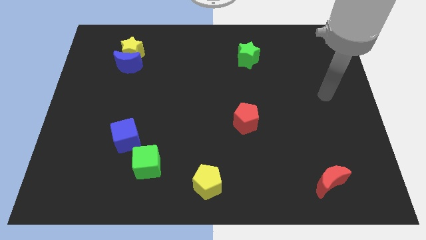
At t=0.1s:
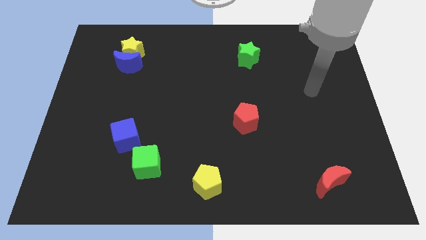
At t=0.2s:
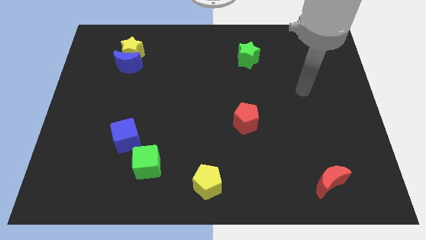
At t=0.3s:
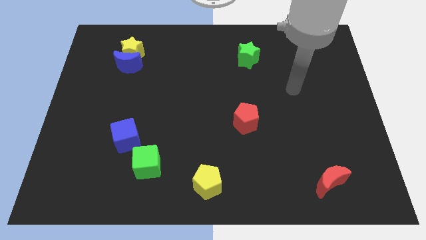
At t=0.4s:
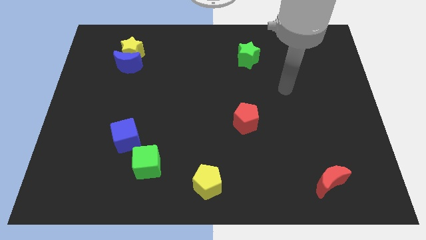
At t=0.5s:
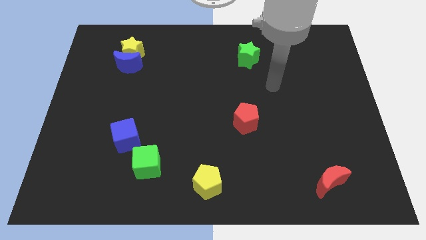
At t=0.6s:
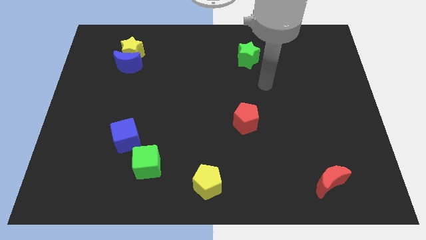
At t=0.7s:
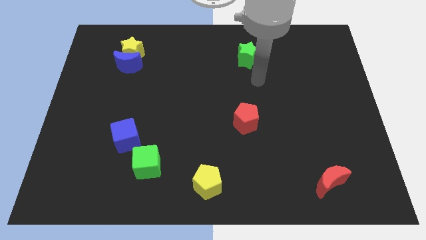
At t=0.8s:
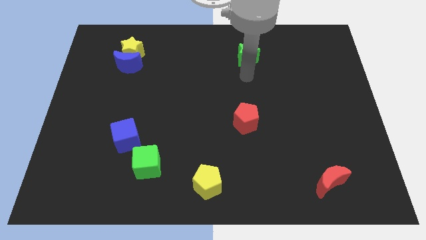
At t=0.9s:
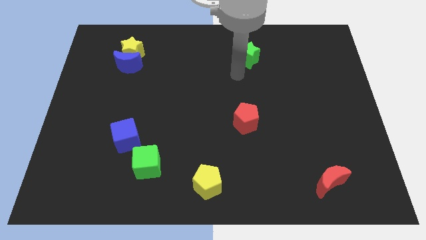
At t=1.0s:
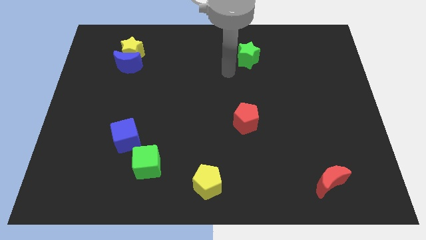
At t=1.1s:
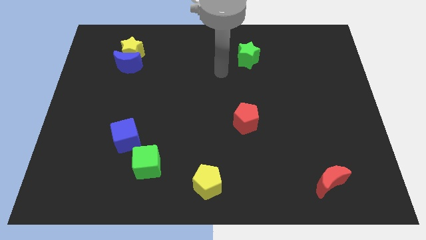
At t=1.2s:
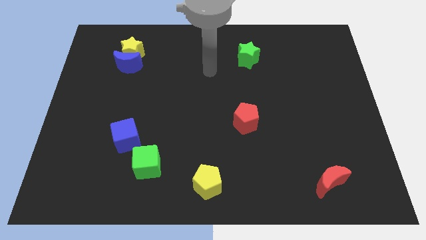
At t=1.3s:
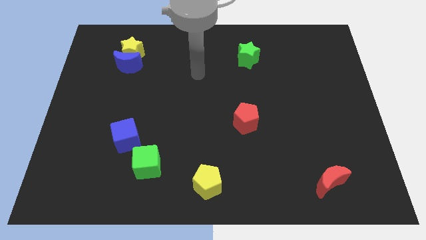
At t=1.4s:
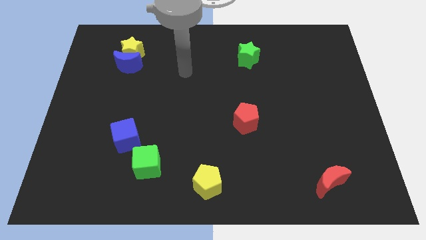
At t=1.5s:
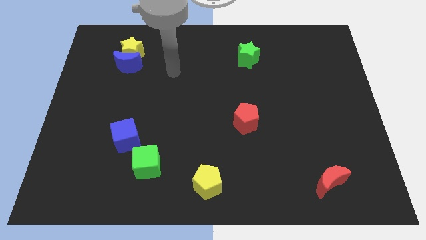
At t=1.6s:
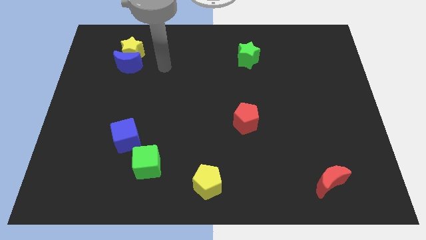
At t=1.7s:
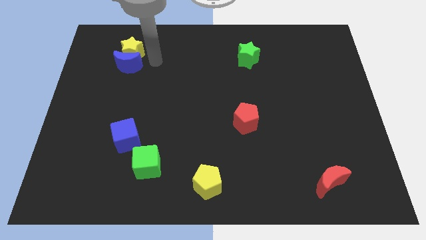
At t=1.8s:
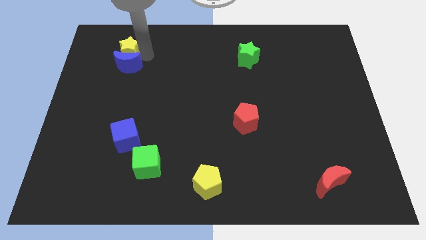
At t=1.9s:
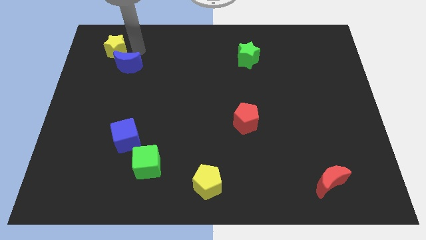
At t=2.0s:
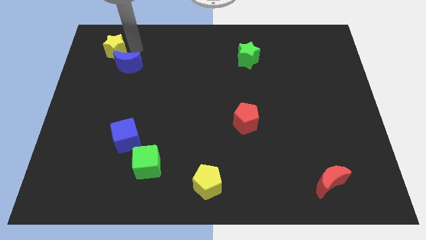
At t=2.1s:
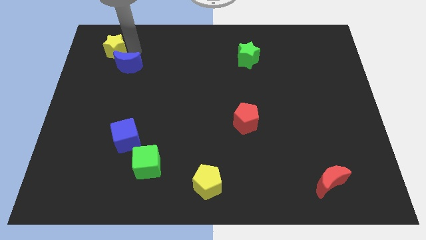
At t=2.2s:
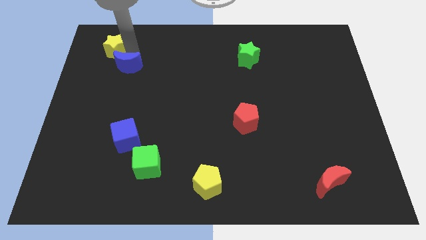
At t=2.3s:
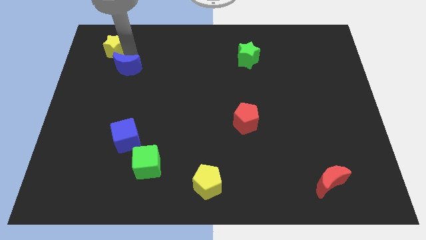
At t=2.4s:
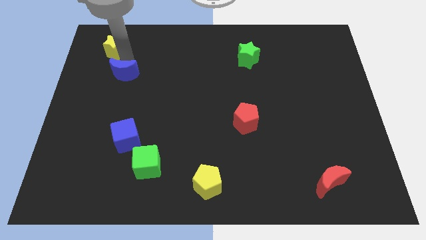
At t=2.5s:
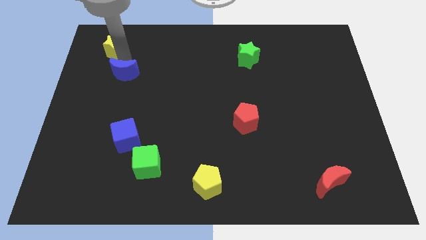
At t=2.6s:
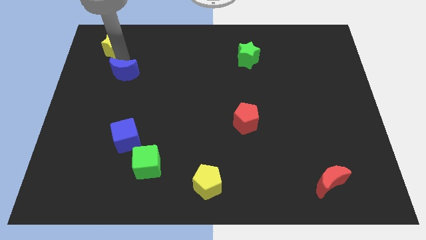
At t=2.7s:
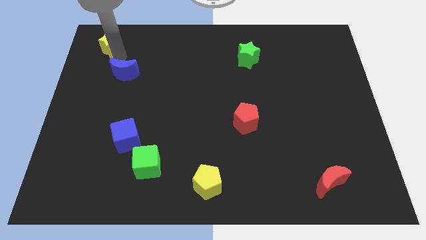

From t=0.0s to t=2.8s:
move the blue moon away from the yellow star

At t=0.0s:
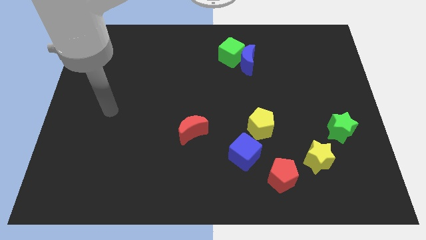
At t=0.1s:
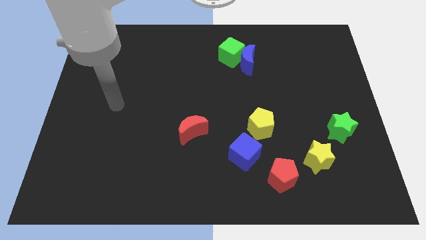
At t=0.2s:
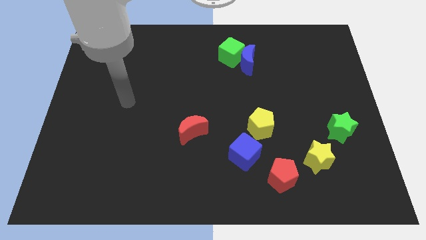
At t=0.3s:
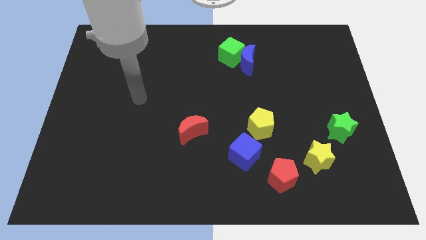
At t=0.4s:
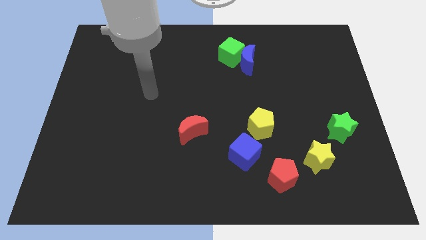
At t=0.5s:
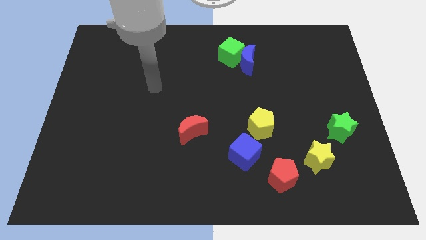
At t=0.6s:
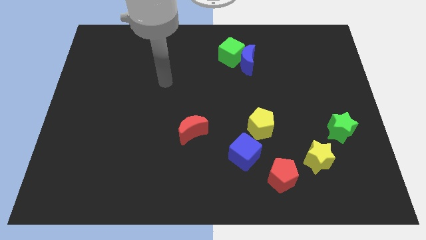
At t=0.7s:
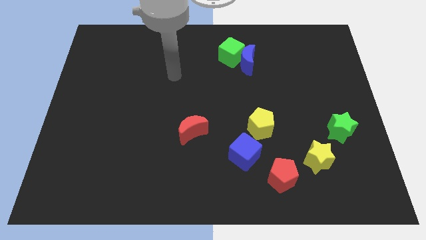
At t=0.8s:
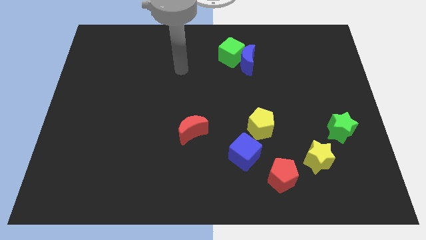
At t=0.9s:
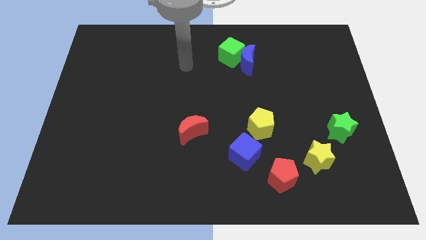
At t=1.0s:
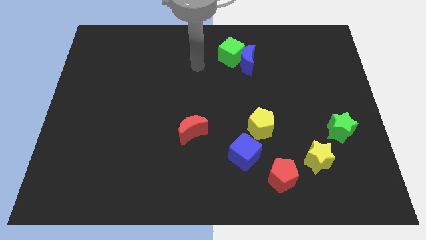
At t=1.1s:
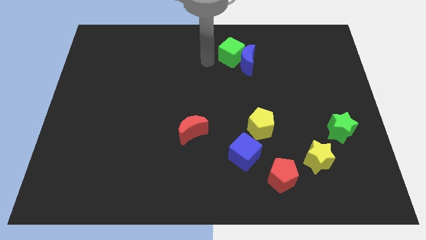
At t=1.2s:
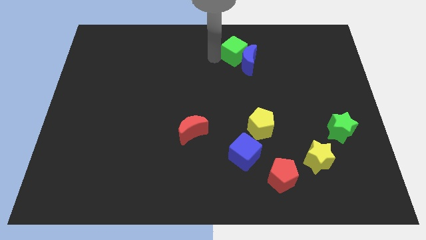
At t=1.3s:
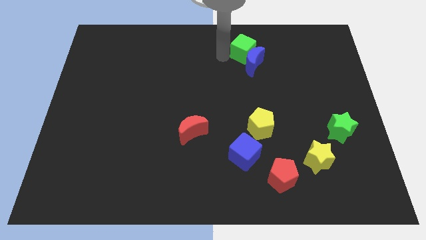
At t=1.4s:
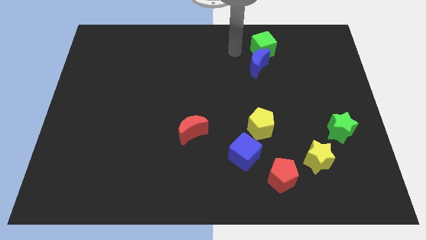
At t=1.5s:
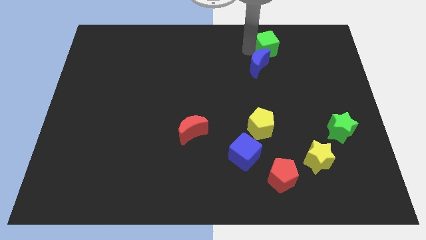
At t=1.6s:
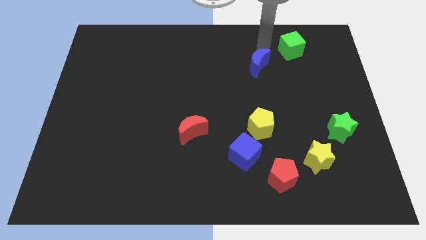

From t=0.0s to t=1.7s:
pull the blue moon apart from the green cube

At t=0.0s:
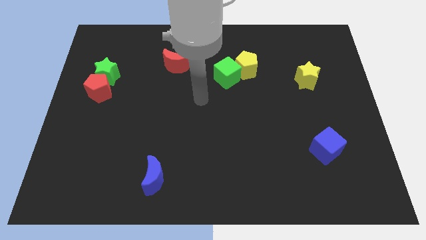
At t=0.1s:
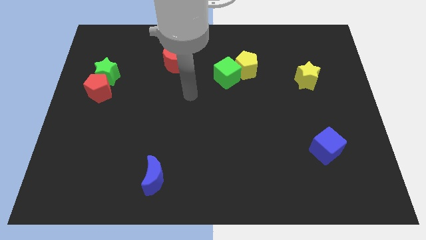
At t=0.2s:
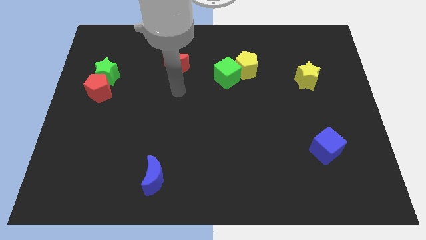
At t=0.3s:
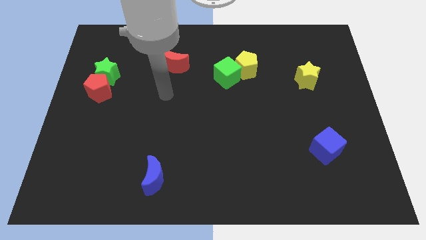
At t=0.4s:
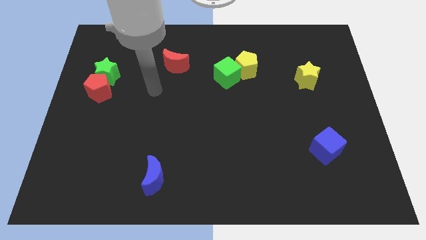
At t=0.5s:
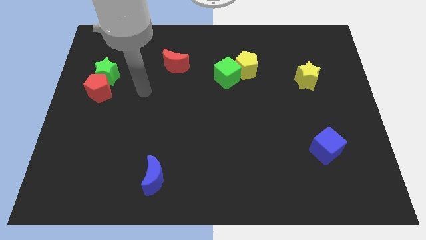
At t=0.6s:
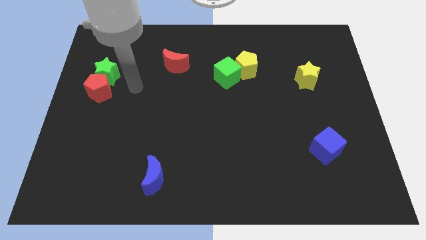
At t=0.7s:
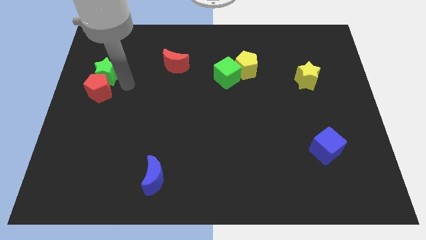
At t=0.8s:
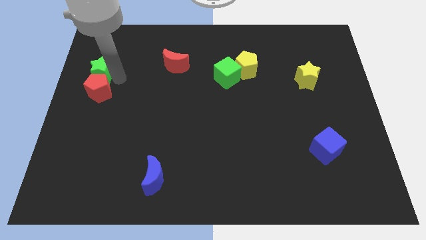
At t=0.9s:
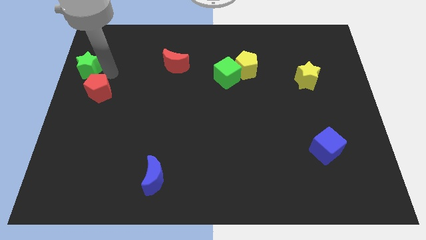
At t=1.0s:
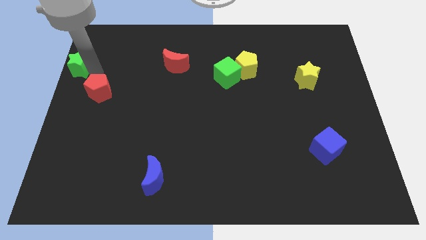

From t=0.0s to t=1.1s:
move the red pentagon away from the green star

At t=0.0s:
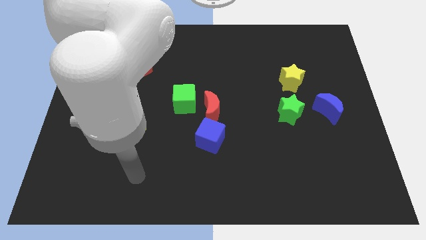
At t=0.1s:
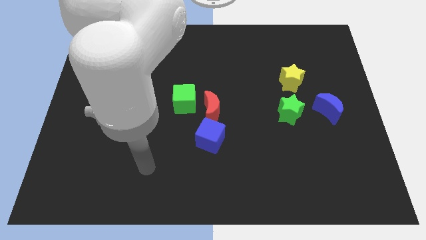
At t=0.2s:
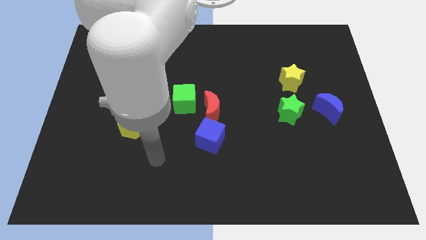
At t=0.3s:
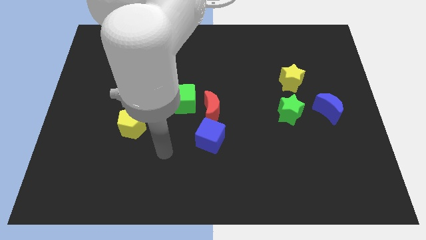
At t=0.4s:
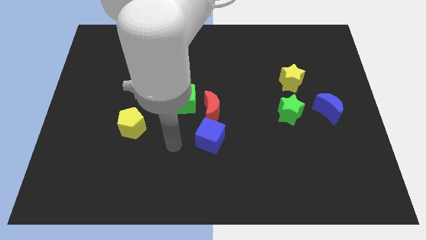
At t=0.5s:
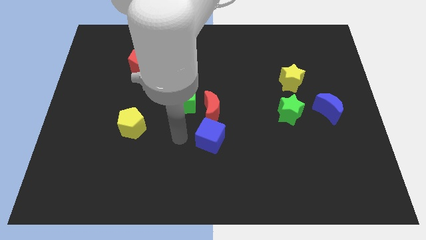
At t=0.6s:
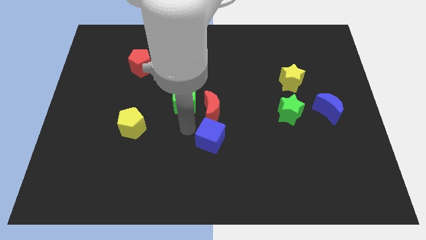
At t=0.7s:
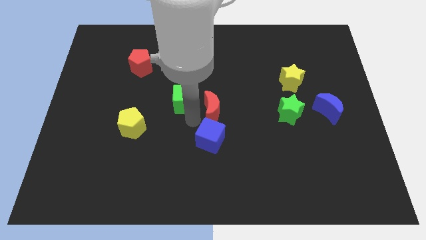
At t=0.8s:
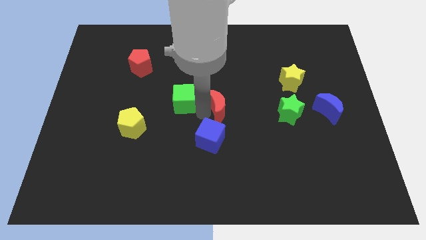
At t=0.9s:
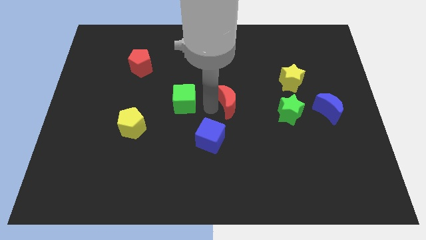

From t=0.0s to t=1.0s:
move the green cube away from the red moon

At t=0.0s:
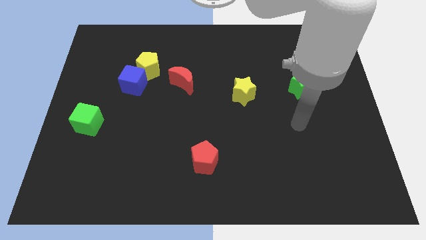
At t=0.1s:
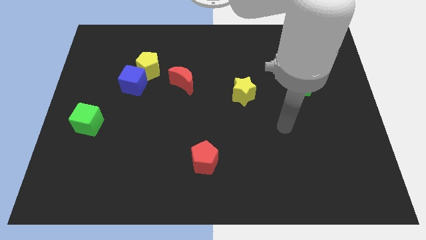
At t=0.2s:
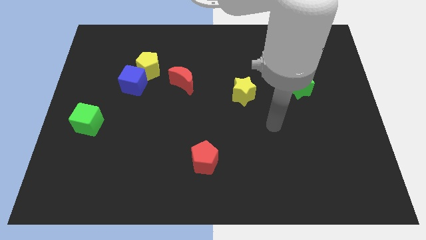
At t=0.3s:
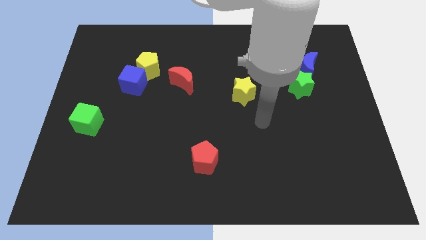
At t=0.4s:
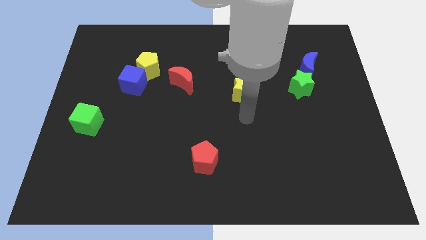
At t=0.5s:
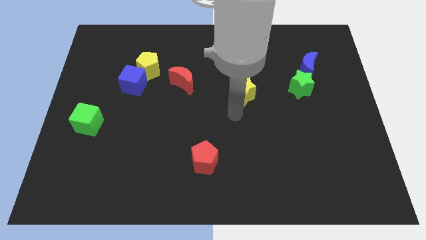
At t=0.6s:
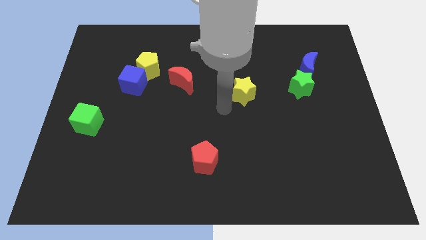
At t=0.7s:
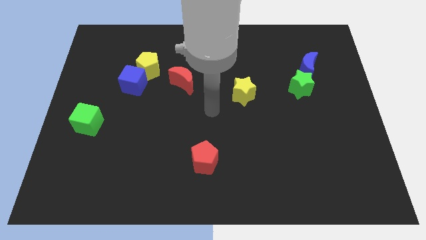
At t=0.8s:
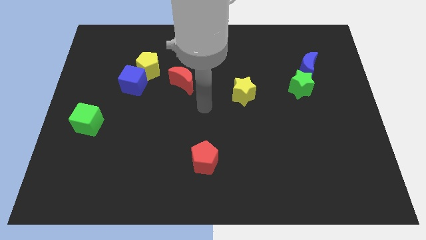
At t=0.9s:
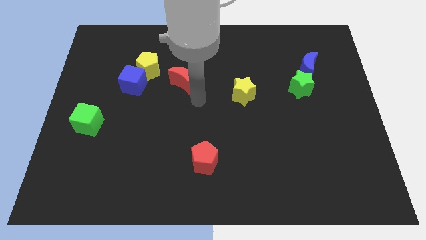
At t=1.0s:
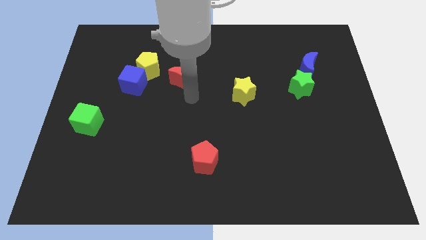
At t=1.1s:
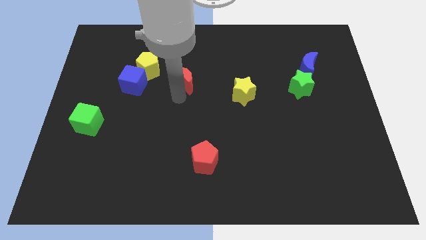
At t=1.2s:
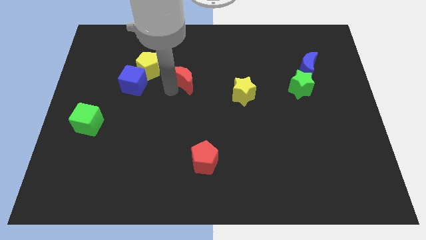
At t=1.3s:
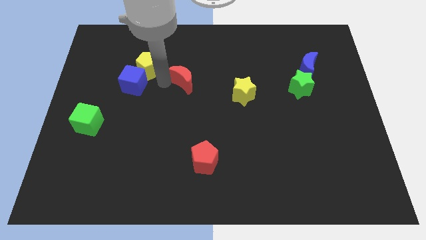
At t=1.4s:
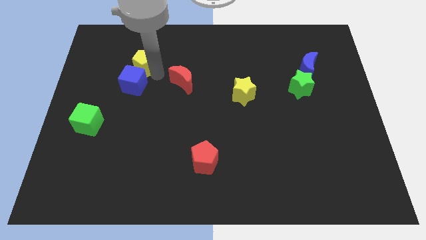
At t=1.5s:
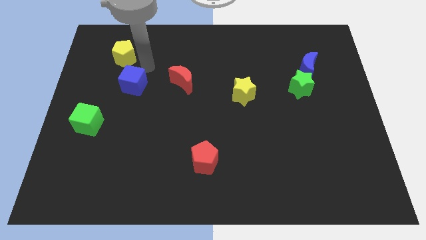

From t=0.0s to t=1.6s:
separate the blue cube from the yellow pentagon

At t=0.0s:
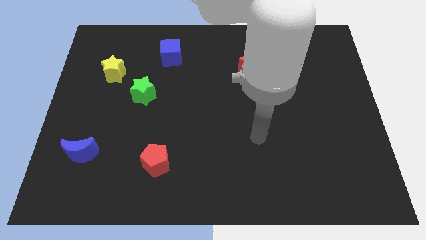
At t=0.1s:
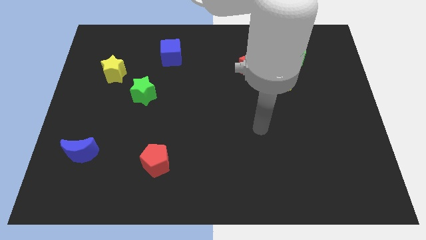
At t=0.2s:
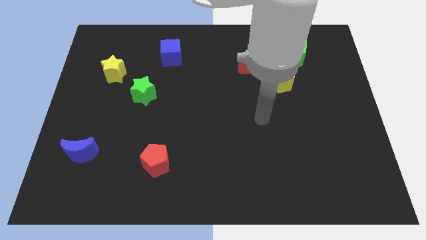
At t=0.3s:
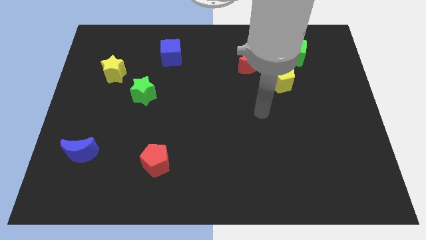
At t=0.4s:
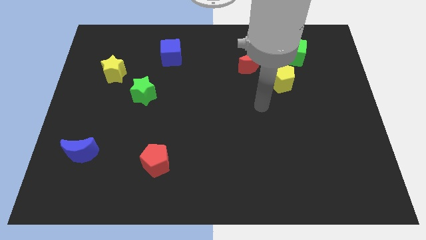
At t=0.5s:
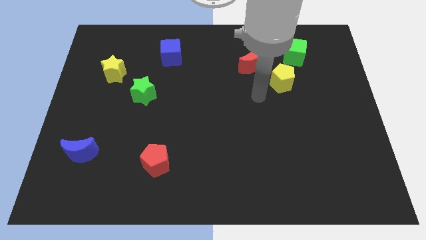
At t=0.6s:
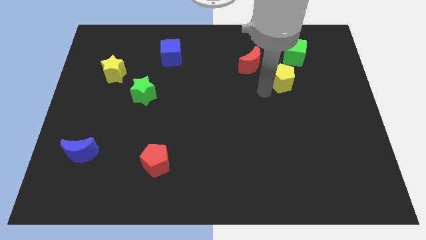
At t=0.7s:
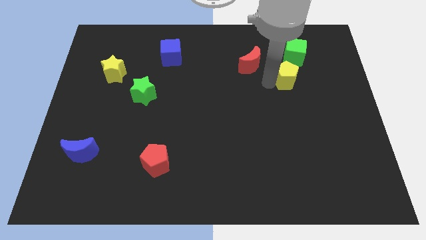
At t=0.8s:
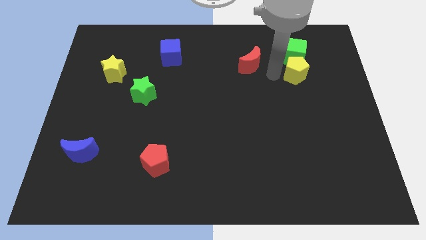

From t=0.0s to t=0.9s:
separate the red moon from the yellow pentagon

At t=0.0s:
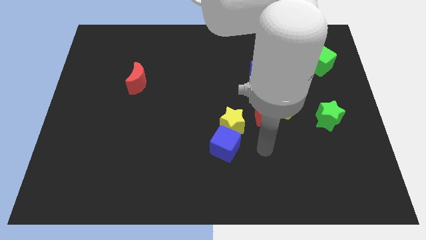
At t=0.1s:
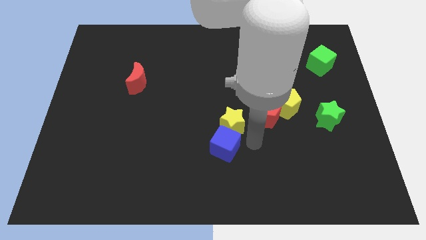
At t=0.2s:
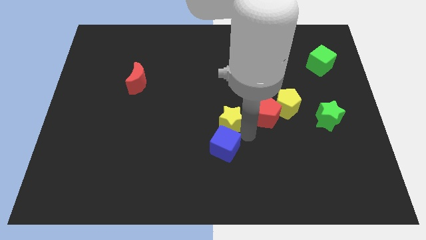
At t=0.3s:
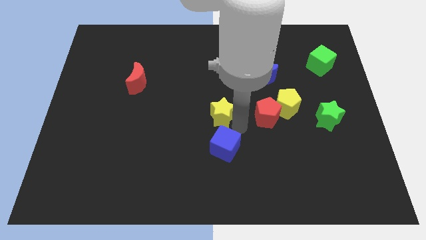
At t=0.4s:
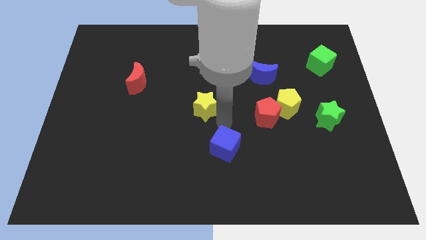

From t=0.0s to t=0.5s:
move the blue cube away from the yellow star
